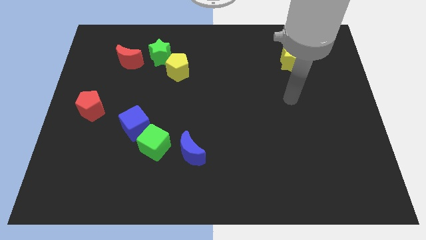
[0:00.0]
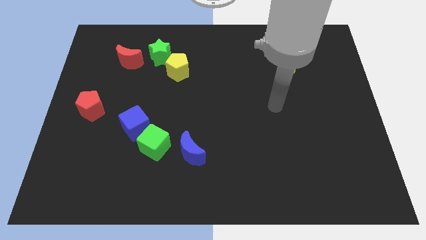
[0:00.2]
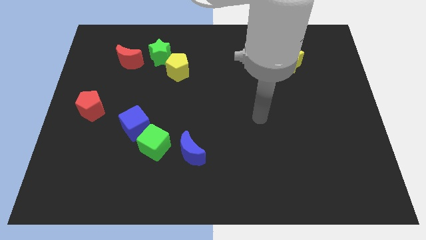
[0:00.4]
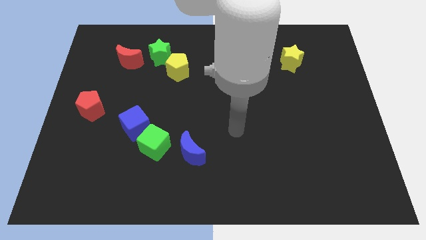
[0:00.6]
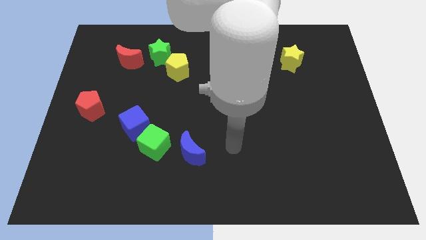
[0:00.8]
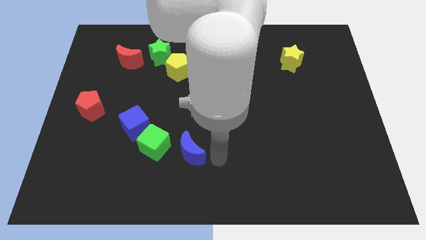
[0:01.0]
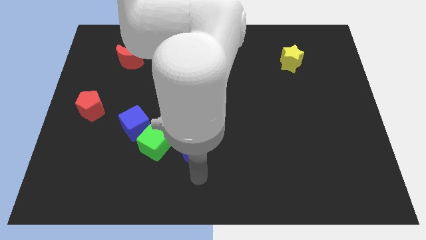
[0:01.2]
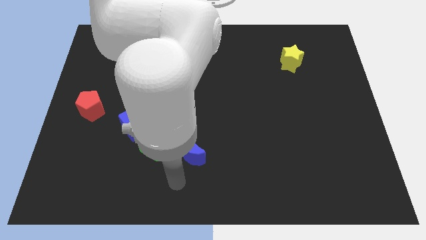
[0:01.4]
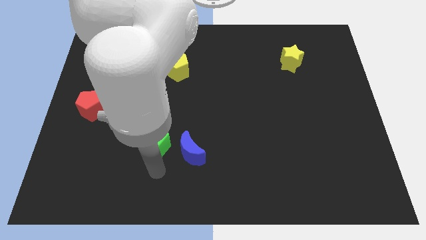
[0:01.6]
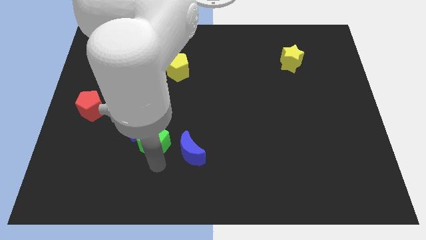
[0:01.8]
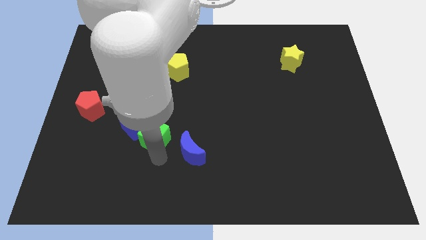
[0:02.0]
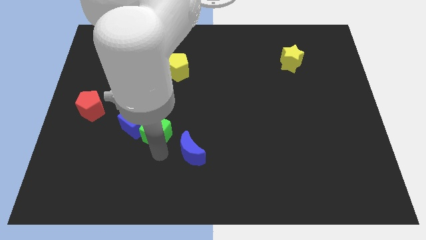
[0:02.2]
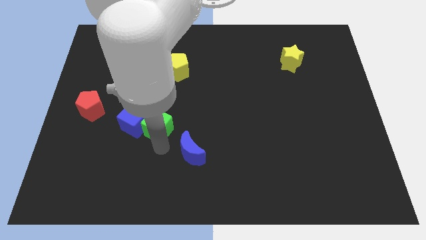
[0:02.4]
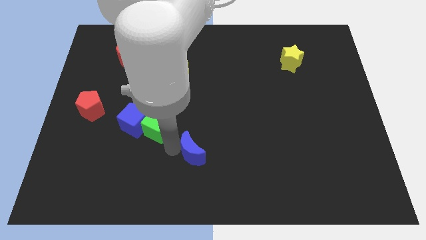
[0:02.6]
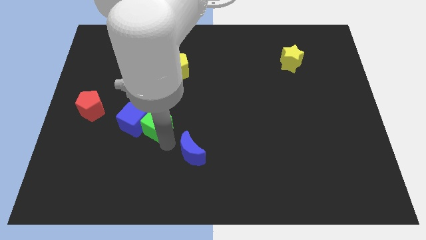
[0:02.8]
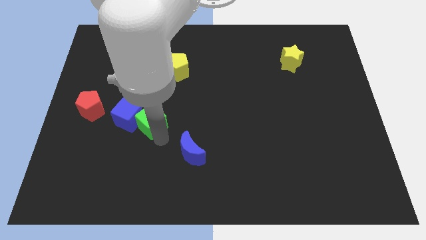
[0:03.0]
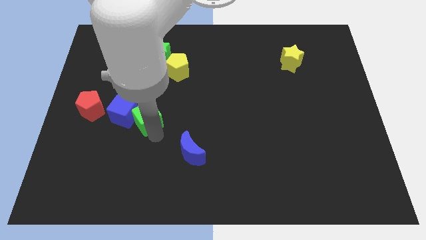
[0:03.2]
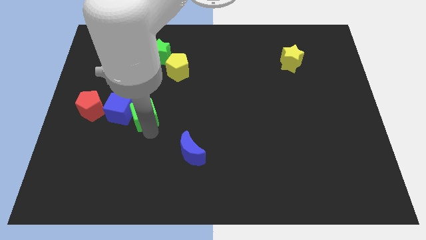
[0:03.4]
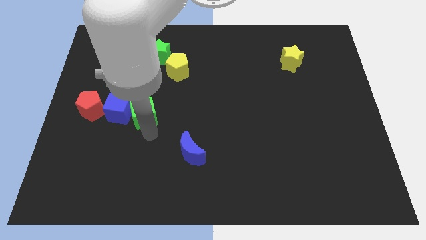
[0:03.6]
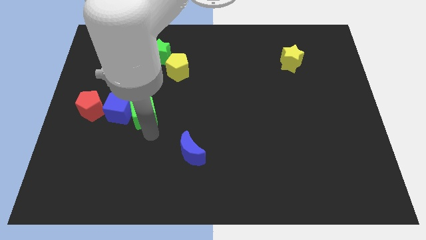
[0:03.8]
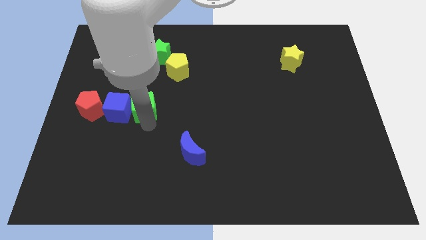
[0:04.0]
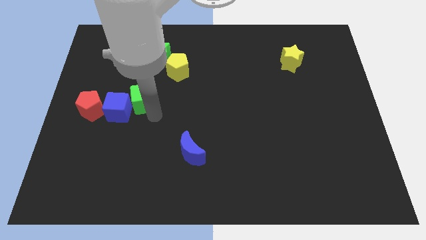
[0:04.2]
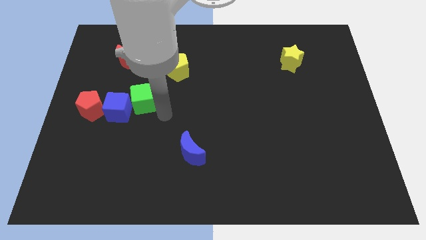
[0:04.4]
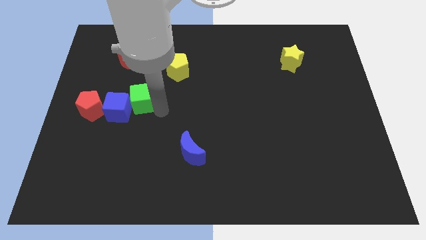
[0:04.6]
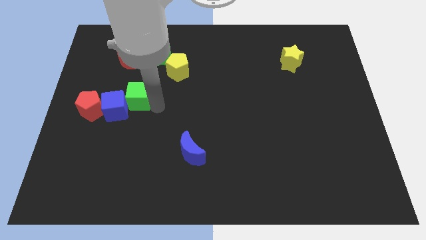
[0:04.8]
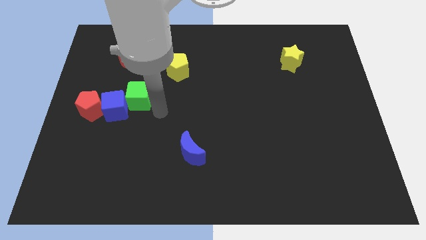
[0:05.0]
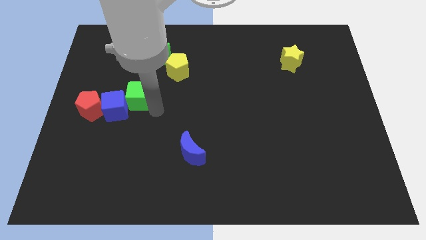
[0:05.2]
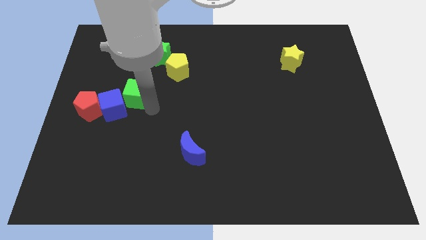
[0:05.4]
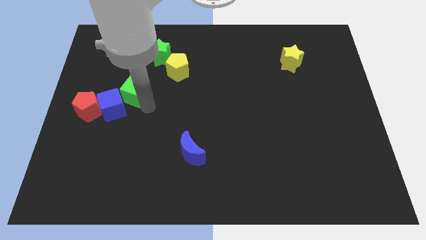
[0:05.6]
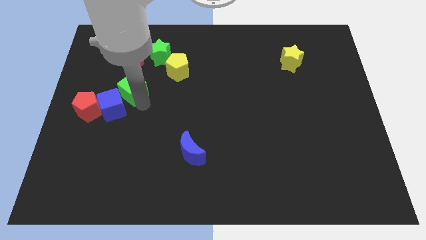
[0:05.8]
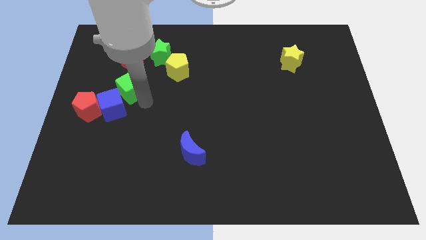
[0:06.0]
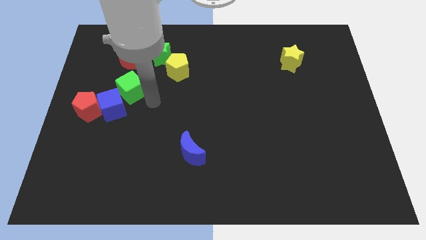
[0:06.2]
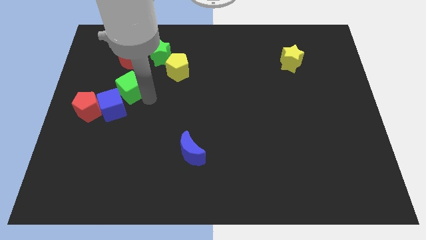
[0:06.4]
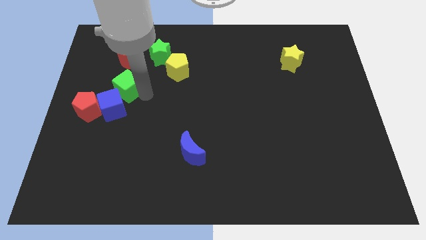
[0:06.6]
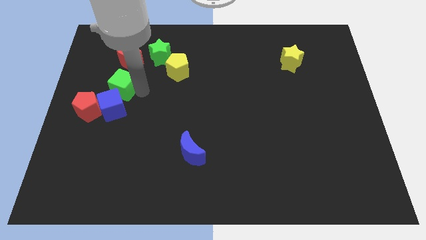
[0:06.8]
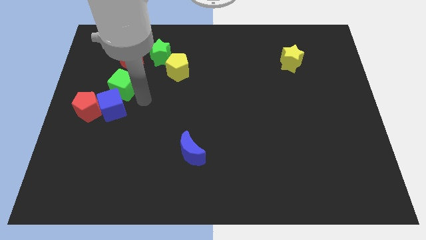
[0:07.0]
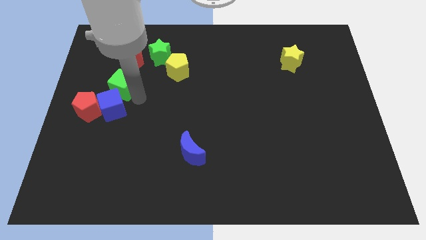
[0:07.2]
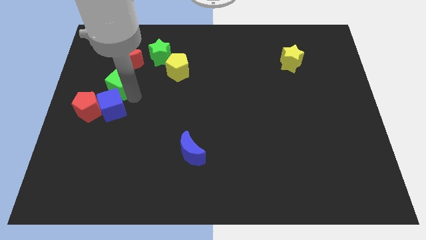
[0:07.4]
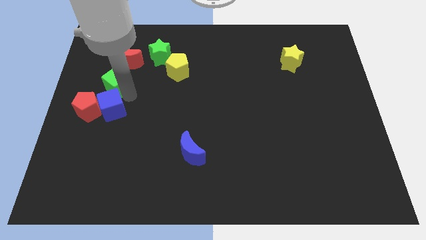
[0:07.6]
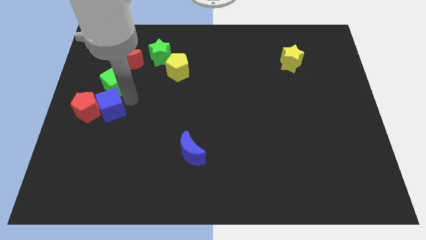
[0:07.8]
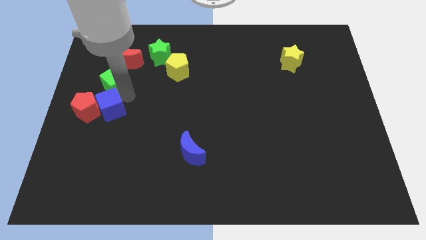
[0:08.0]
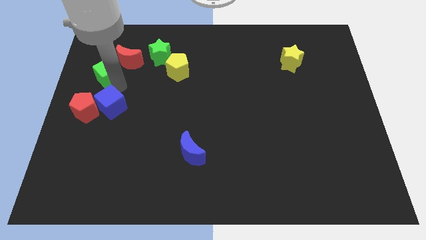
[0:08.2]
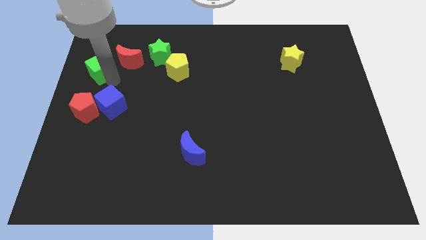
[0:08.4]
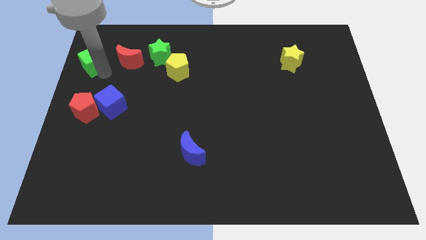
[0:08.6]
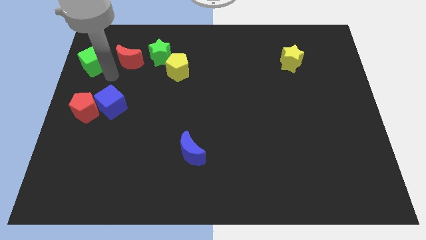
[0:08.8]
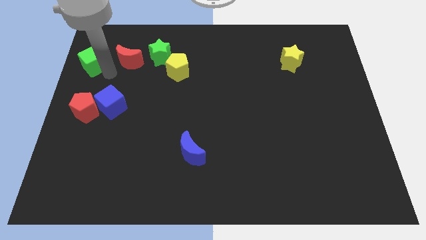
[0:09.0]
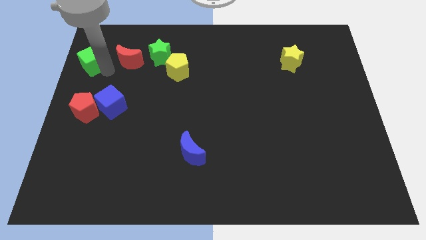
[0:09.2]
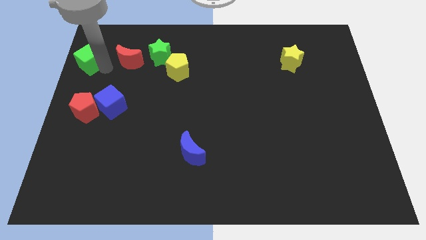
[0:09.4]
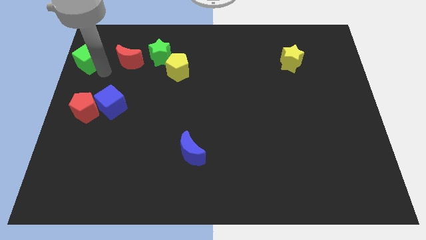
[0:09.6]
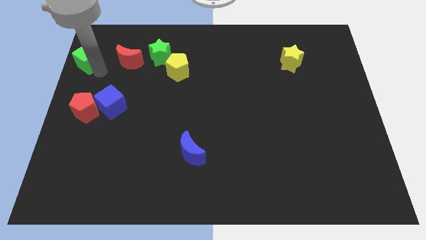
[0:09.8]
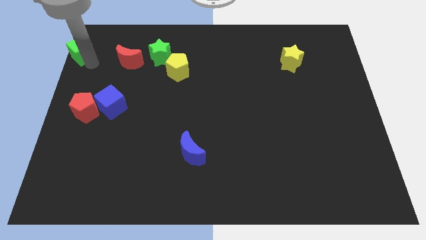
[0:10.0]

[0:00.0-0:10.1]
put the green cube to the top left of the board

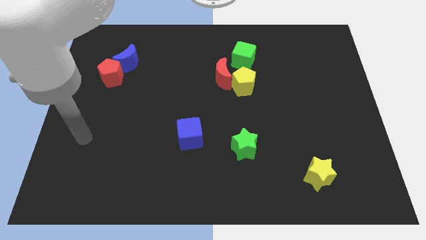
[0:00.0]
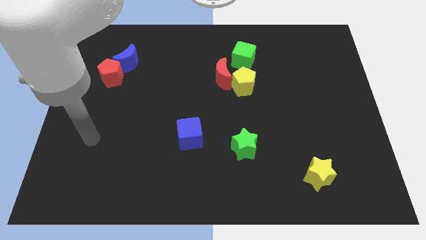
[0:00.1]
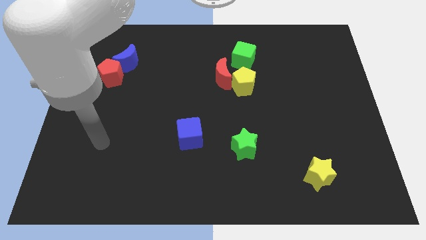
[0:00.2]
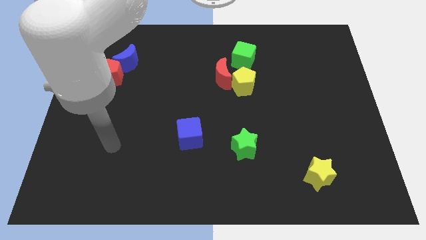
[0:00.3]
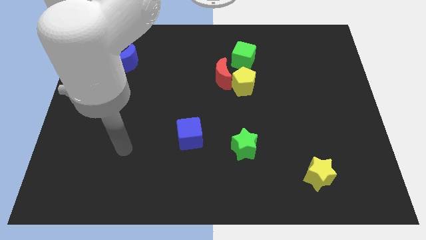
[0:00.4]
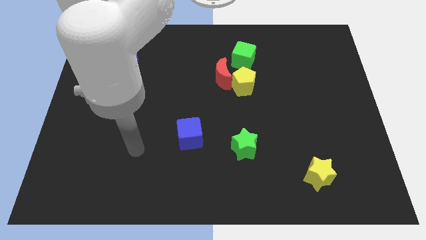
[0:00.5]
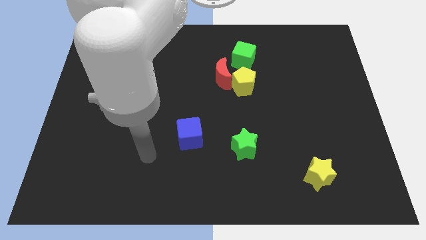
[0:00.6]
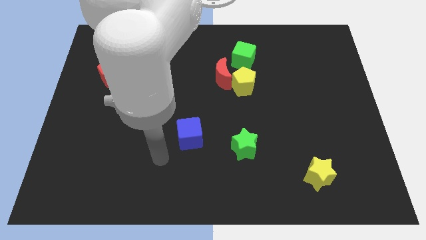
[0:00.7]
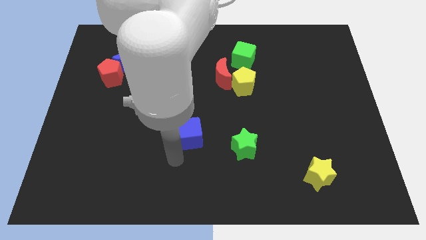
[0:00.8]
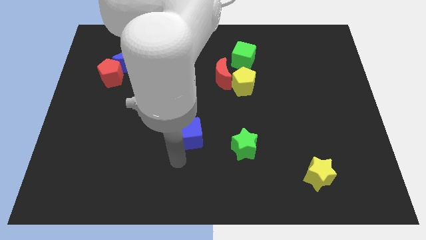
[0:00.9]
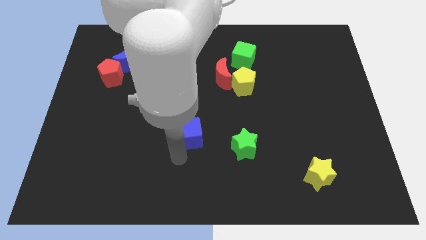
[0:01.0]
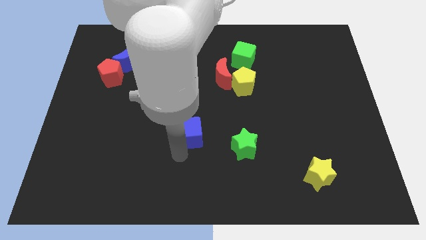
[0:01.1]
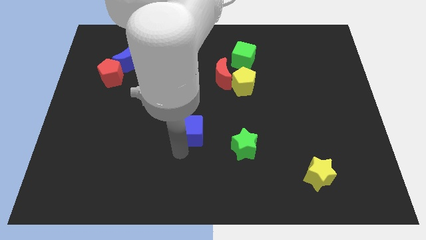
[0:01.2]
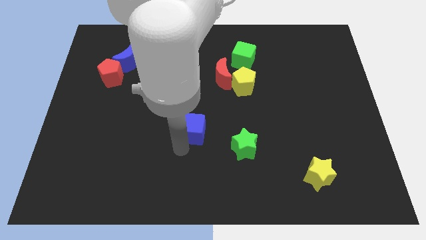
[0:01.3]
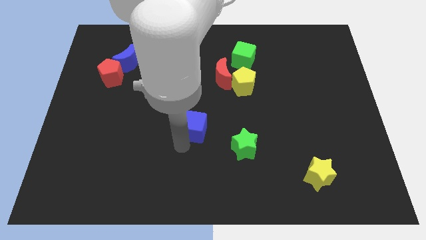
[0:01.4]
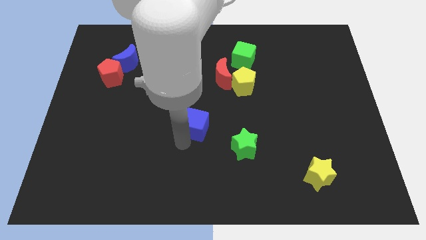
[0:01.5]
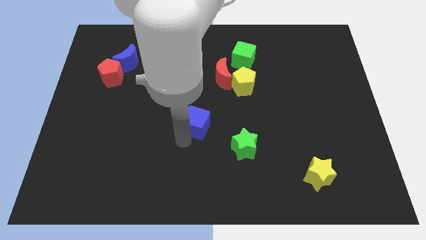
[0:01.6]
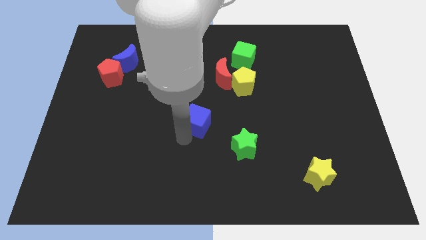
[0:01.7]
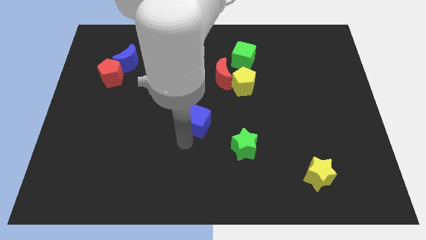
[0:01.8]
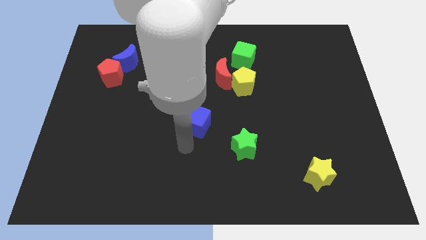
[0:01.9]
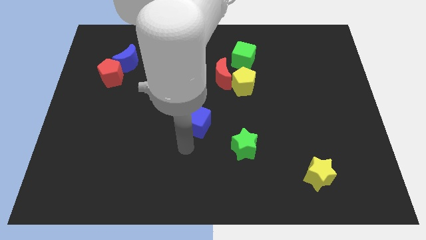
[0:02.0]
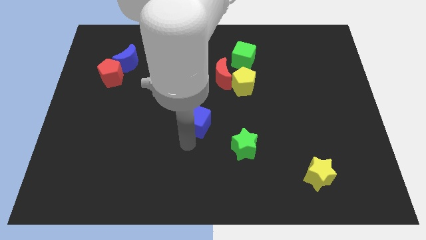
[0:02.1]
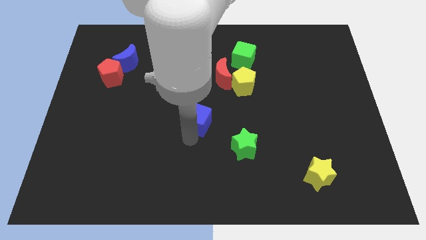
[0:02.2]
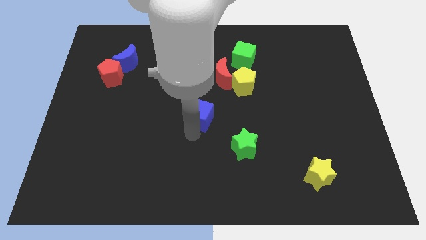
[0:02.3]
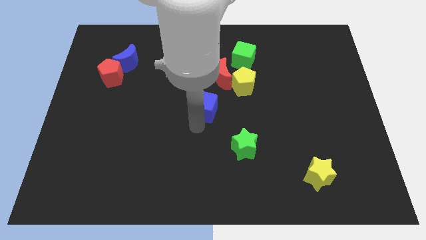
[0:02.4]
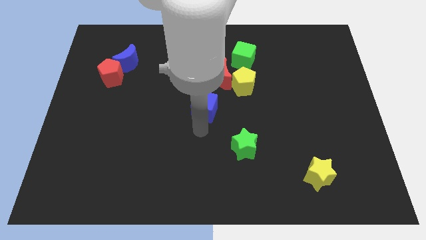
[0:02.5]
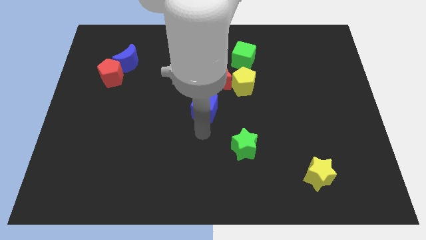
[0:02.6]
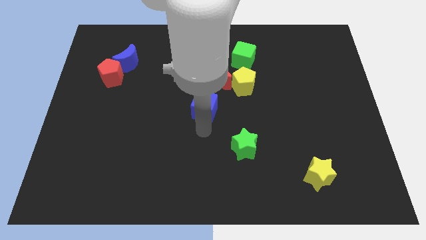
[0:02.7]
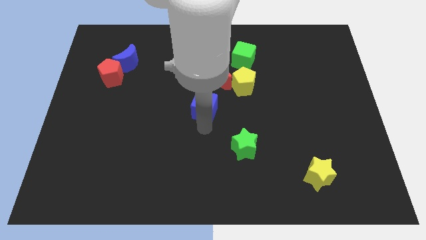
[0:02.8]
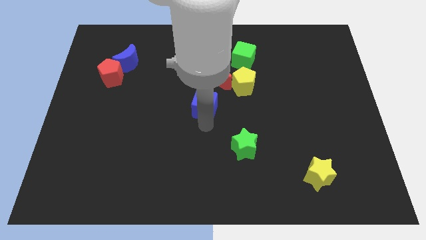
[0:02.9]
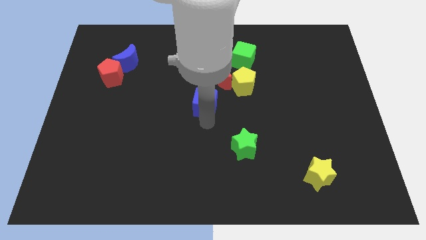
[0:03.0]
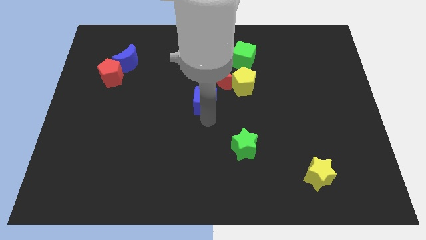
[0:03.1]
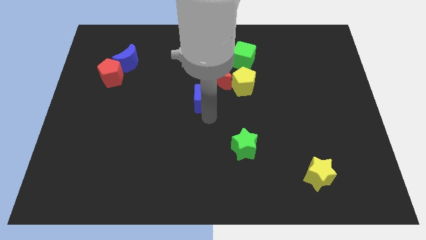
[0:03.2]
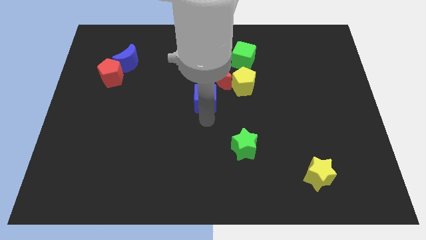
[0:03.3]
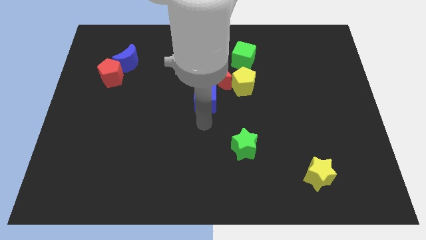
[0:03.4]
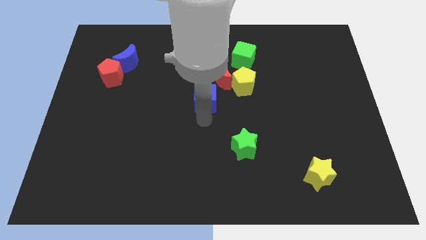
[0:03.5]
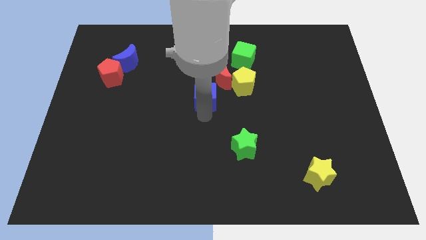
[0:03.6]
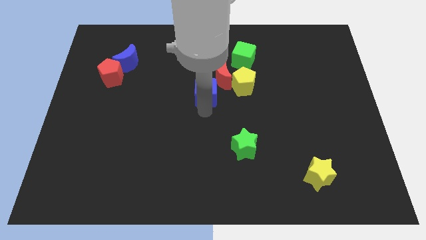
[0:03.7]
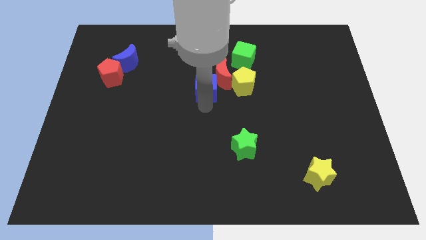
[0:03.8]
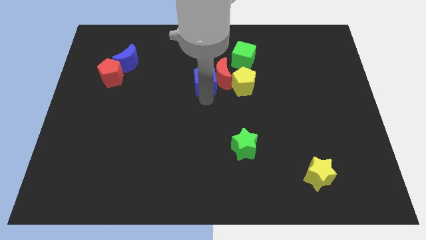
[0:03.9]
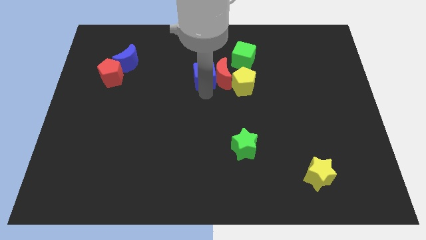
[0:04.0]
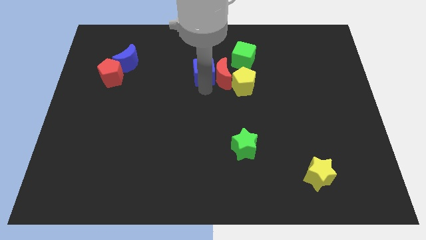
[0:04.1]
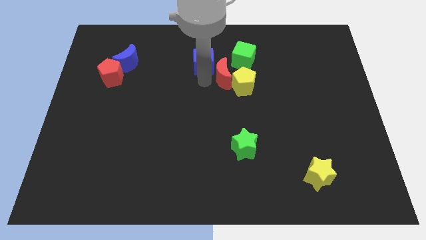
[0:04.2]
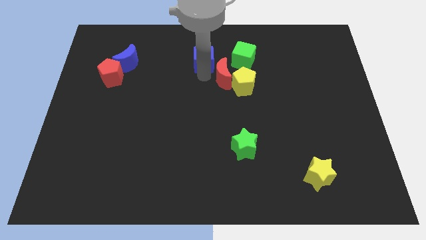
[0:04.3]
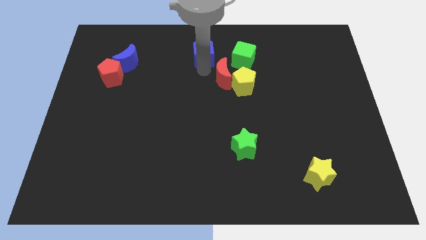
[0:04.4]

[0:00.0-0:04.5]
push the blue cube to the towards your base
